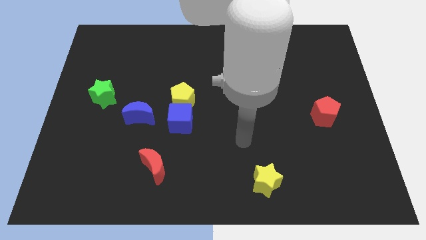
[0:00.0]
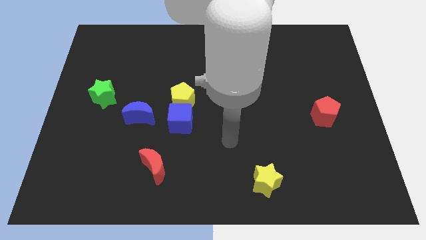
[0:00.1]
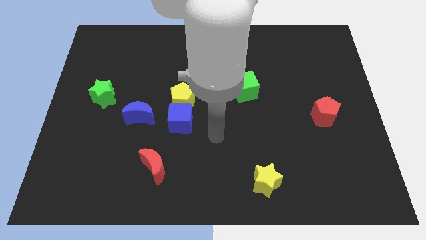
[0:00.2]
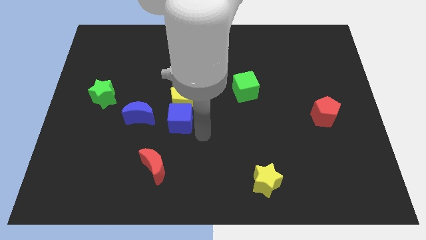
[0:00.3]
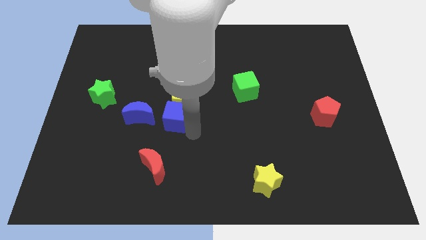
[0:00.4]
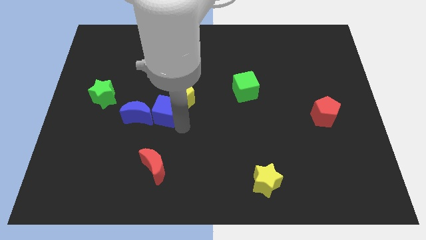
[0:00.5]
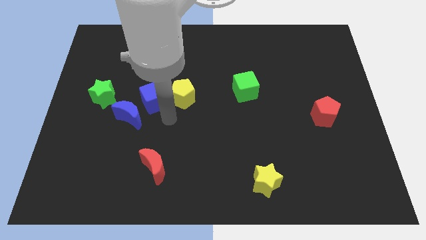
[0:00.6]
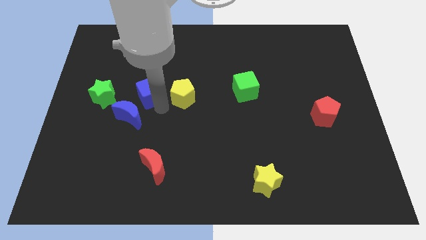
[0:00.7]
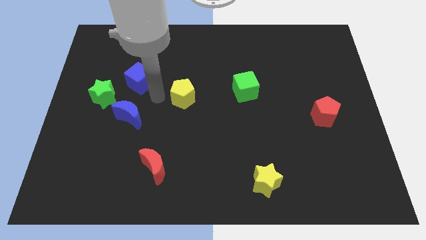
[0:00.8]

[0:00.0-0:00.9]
separate the yellow pentagon from the blue cube

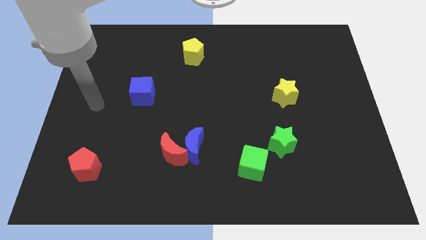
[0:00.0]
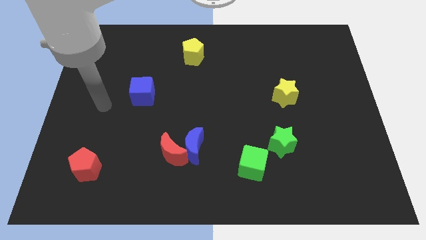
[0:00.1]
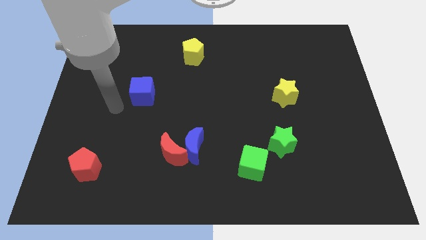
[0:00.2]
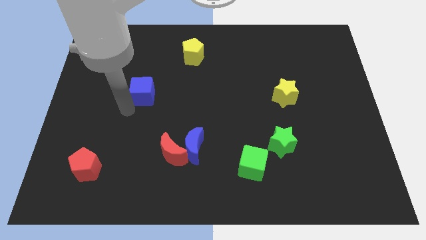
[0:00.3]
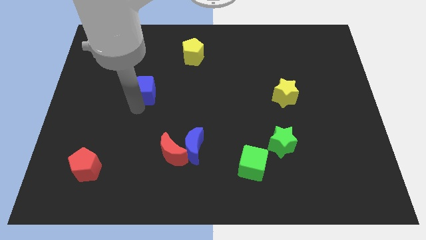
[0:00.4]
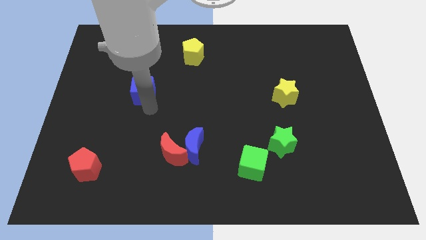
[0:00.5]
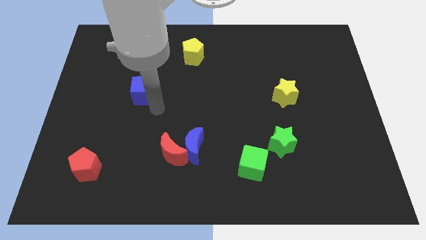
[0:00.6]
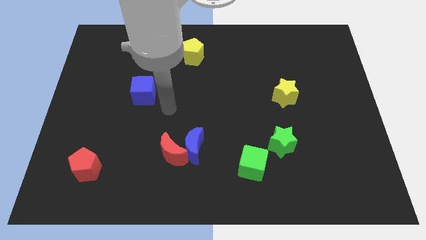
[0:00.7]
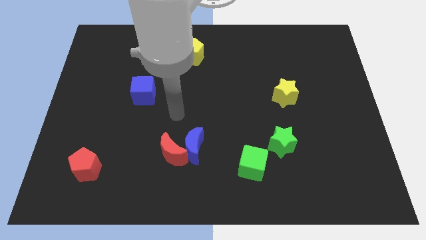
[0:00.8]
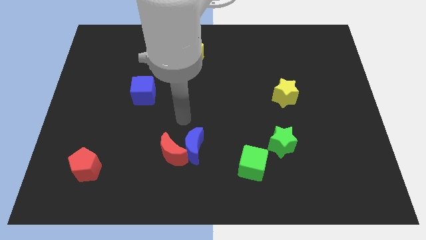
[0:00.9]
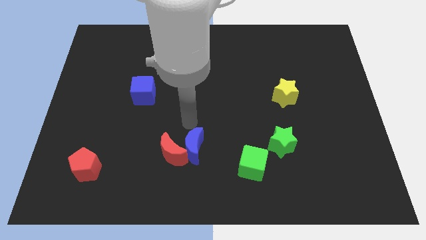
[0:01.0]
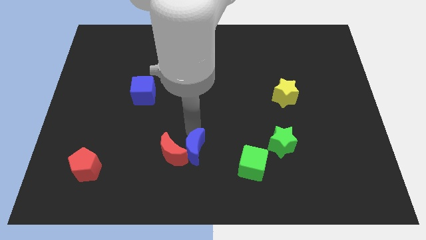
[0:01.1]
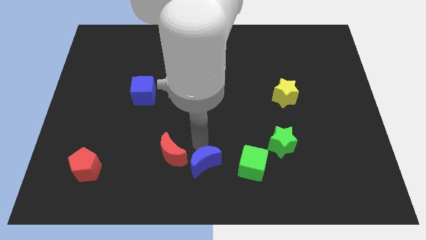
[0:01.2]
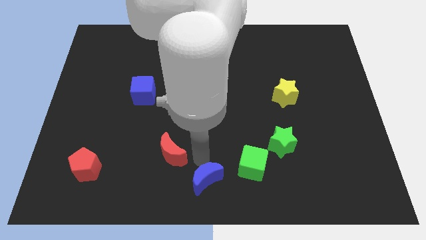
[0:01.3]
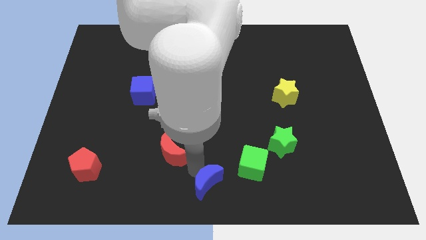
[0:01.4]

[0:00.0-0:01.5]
separate the red moon from the blue moon

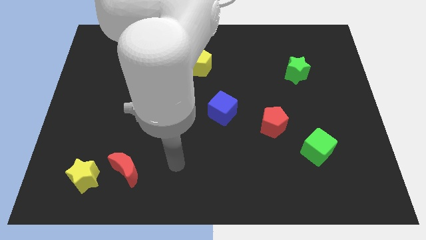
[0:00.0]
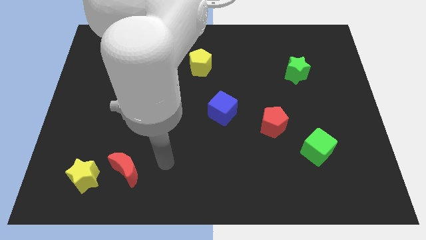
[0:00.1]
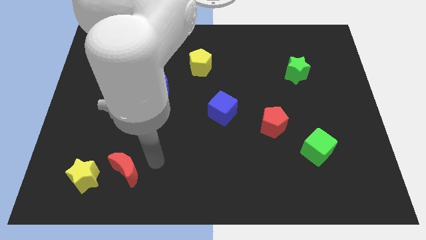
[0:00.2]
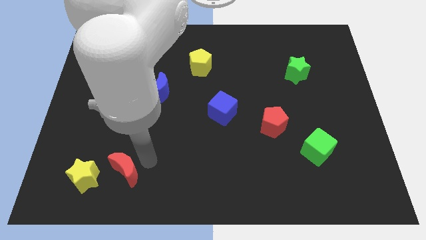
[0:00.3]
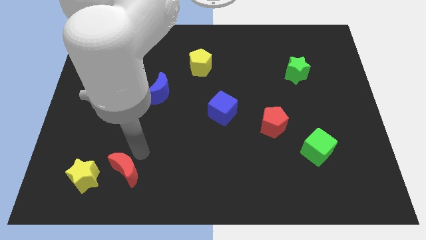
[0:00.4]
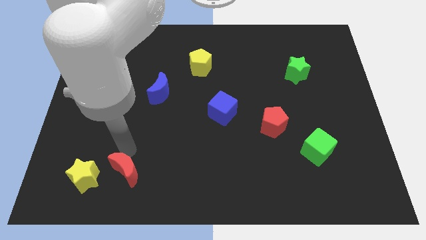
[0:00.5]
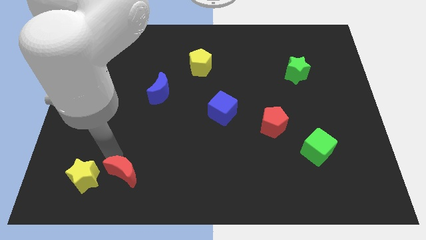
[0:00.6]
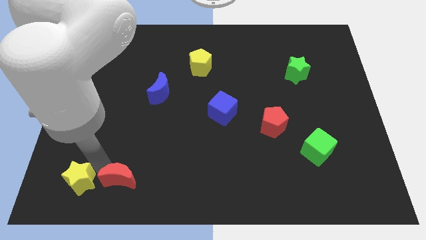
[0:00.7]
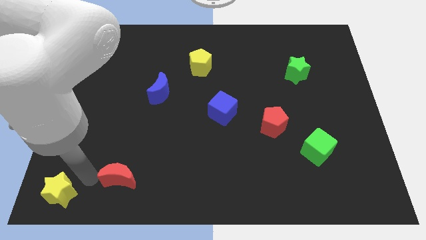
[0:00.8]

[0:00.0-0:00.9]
separate the red moon from the yellow star

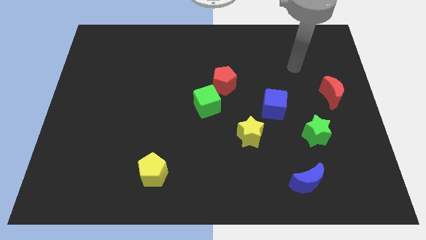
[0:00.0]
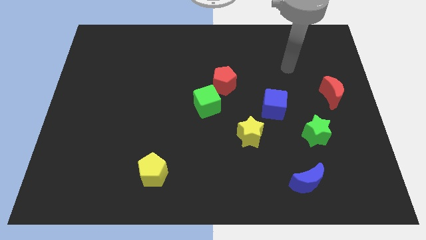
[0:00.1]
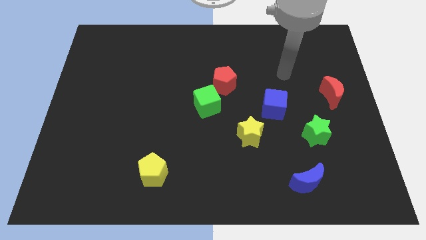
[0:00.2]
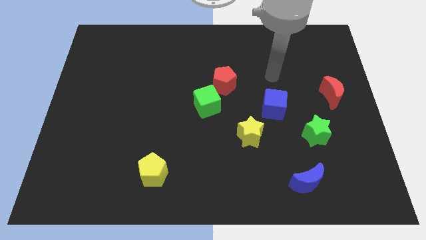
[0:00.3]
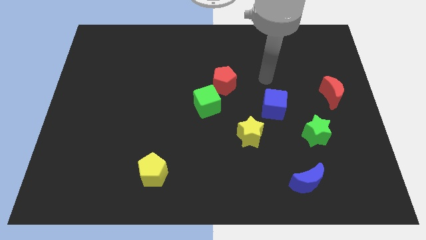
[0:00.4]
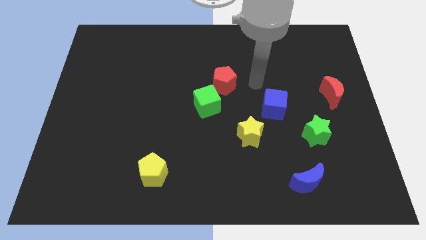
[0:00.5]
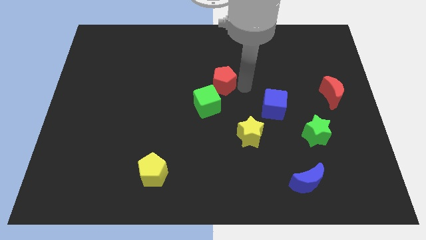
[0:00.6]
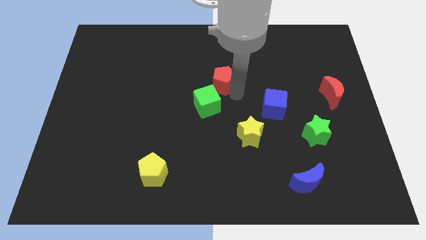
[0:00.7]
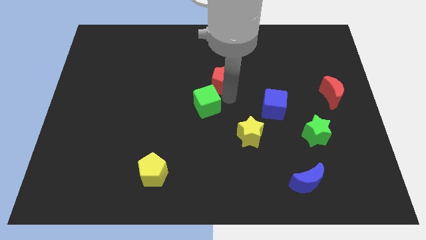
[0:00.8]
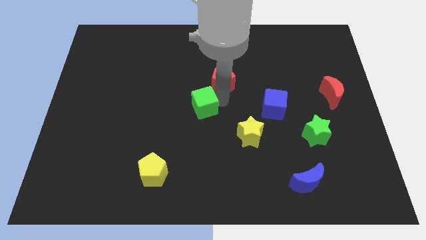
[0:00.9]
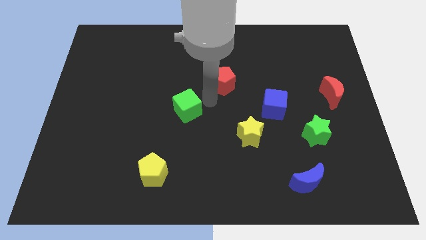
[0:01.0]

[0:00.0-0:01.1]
pull the red pentagon apart from the green cube

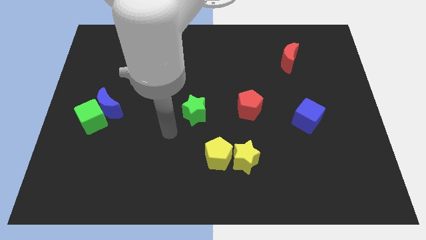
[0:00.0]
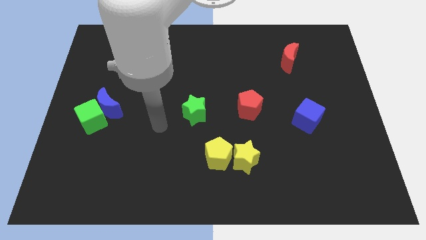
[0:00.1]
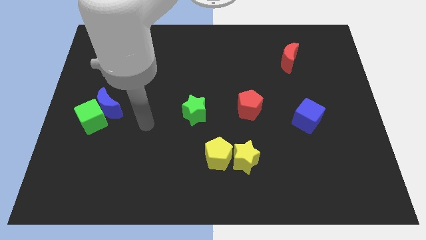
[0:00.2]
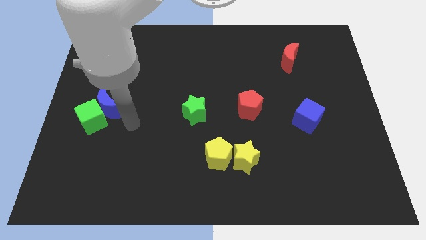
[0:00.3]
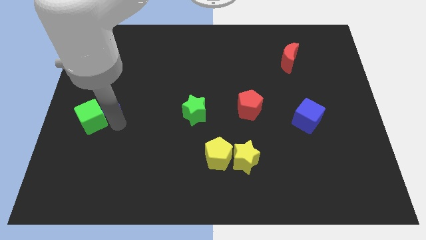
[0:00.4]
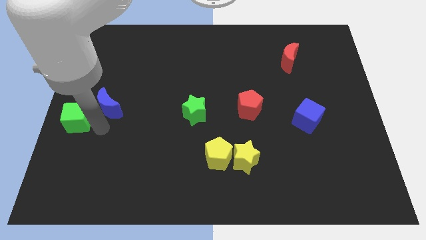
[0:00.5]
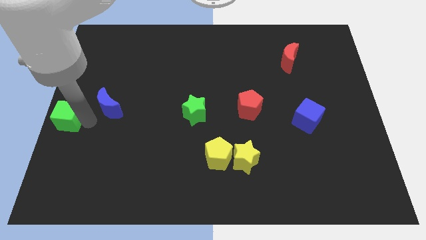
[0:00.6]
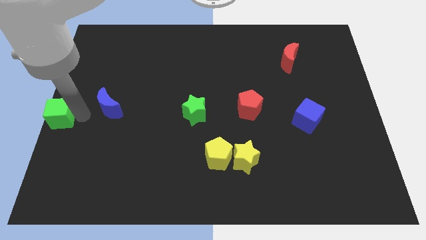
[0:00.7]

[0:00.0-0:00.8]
pull the blue moon apart from the green cube

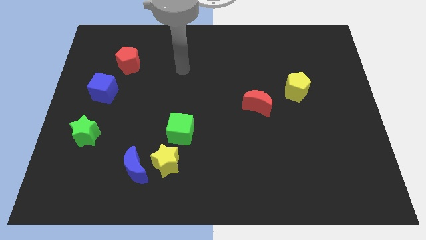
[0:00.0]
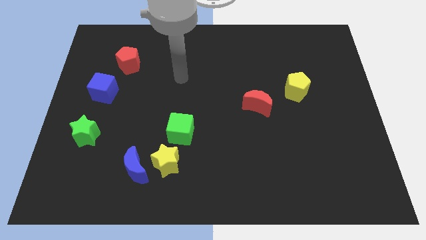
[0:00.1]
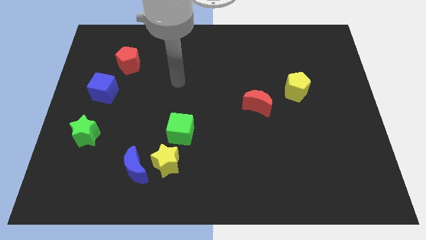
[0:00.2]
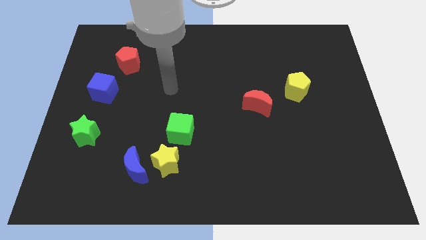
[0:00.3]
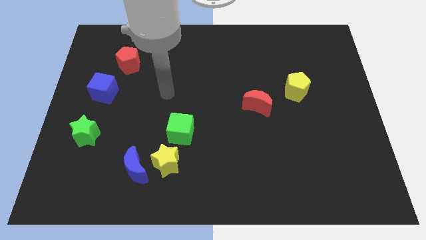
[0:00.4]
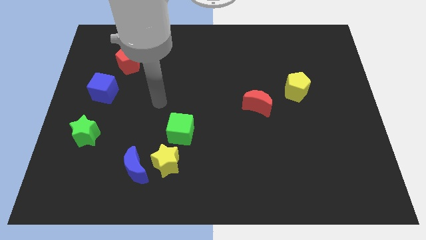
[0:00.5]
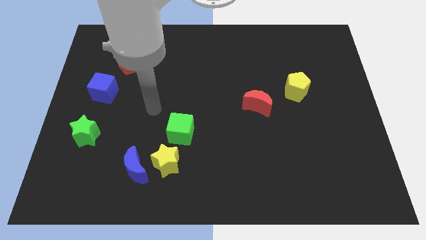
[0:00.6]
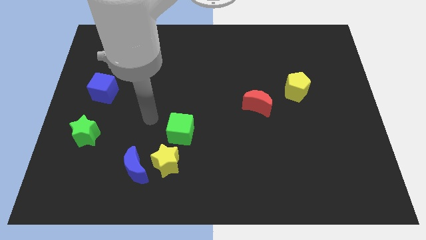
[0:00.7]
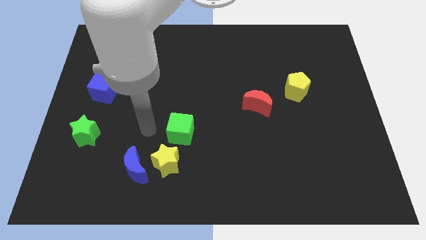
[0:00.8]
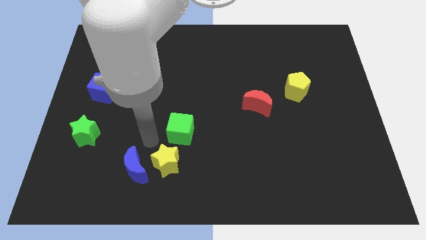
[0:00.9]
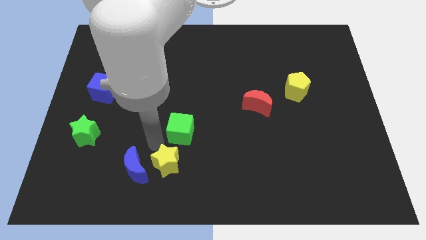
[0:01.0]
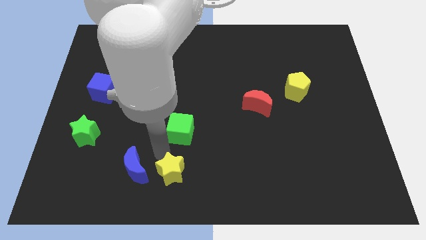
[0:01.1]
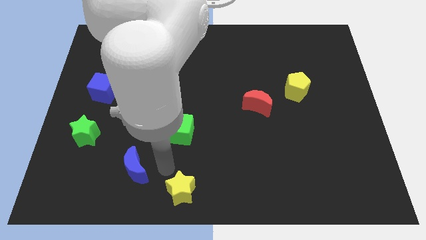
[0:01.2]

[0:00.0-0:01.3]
move the blue moon away from the yellow star

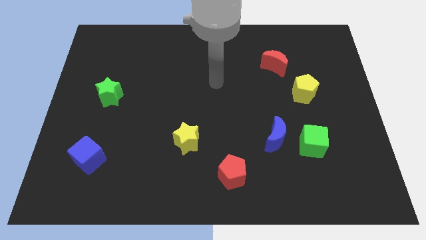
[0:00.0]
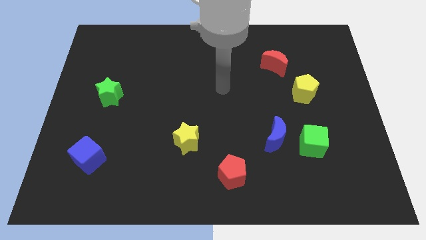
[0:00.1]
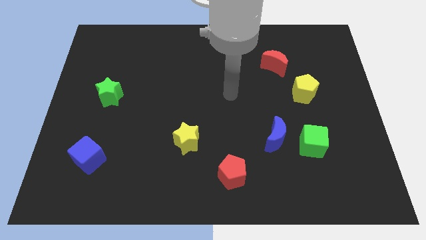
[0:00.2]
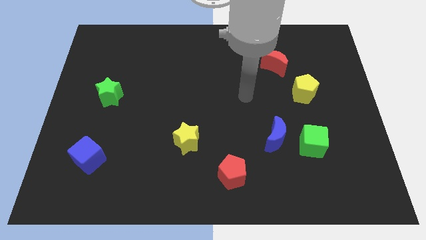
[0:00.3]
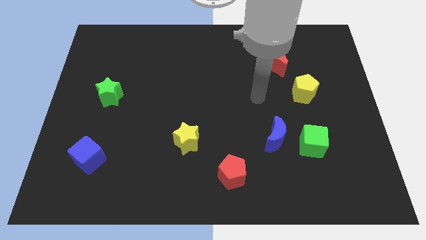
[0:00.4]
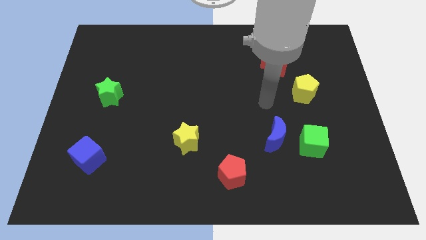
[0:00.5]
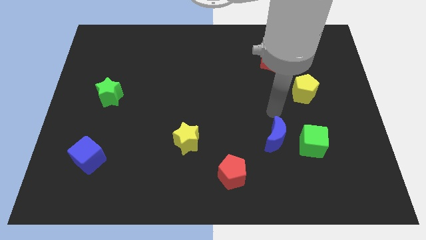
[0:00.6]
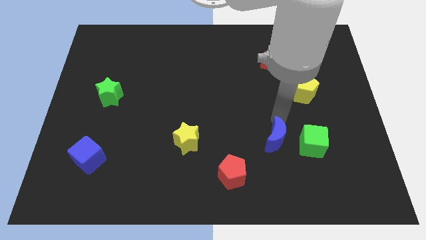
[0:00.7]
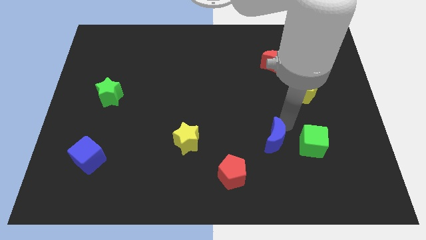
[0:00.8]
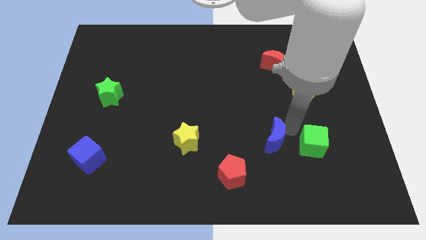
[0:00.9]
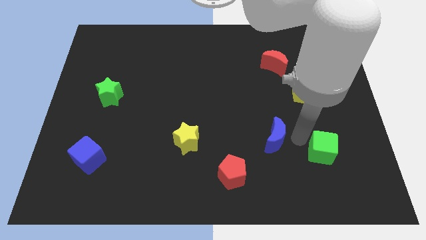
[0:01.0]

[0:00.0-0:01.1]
separate the blue moon from the green cube

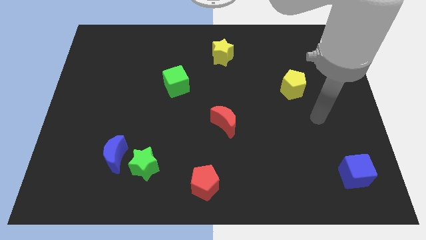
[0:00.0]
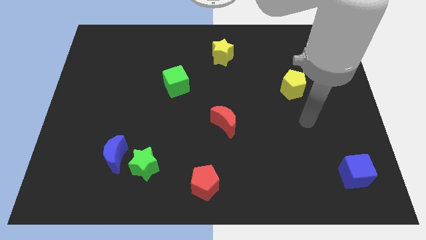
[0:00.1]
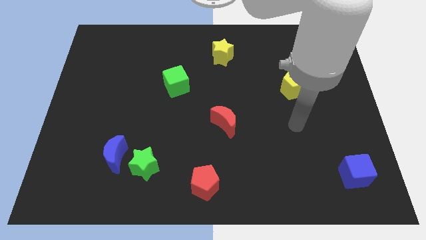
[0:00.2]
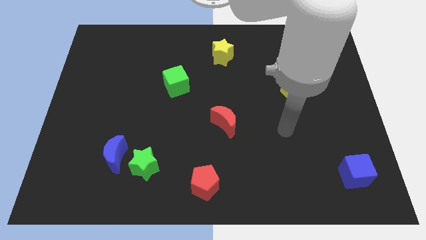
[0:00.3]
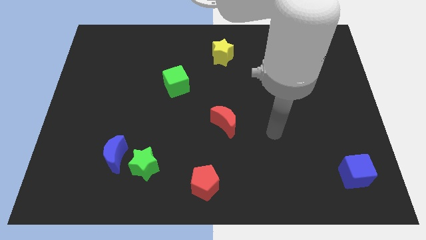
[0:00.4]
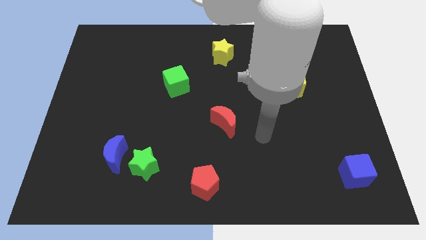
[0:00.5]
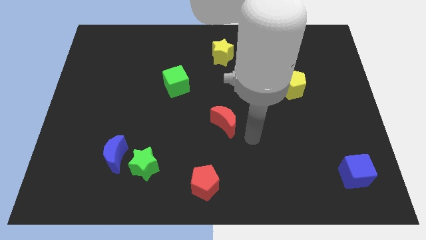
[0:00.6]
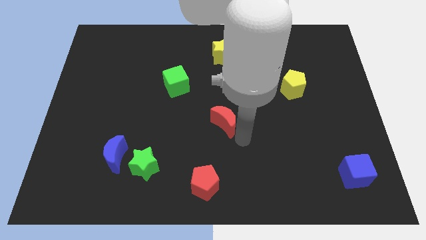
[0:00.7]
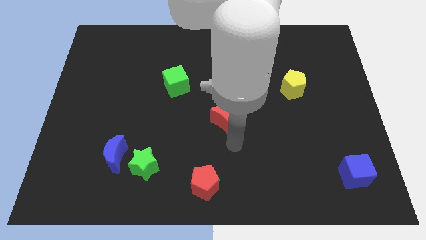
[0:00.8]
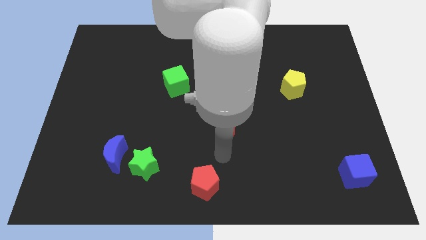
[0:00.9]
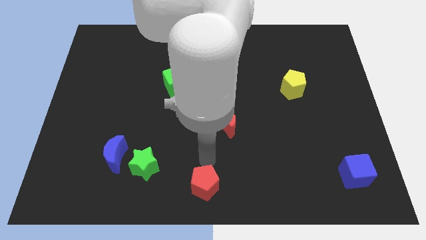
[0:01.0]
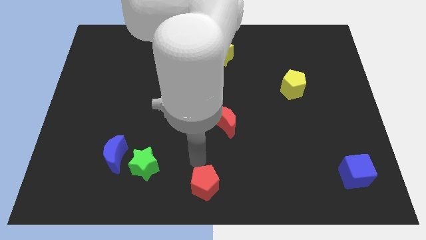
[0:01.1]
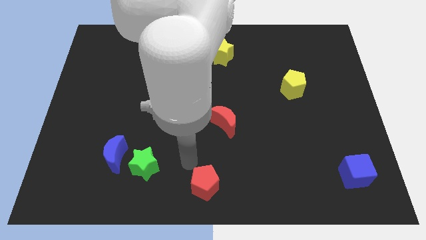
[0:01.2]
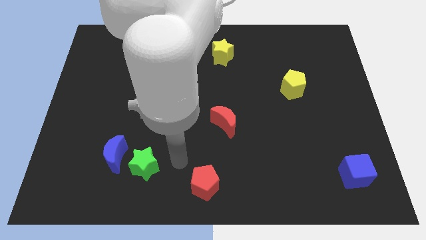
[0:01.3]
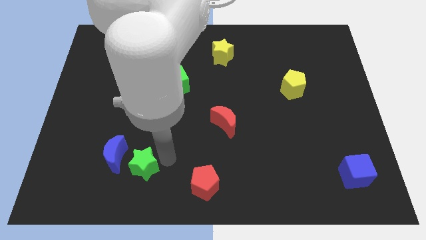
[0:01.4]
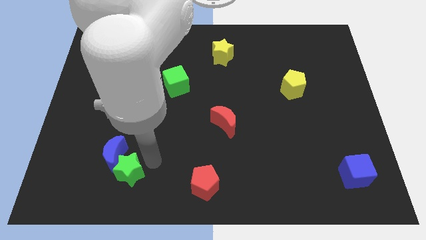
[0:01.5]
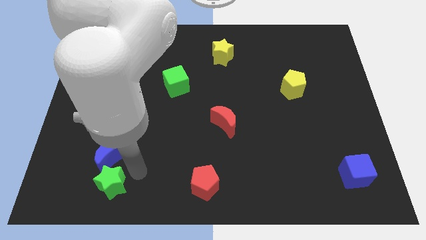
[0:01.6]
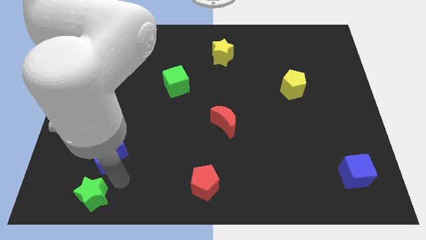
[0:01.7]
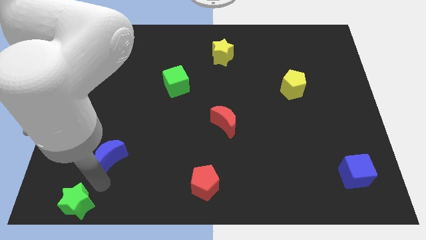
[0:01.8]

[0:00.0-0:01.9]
move the blue moon away from the green star
